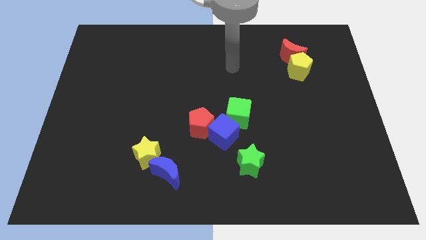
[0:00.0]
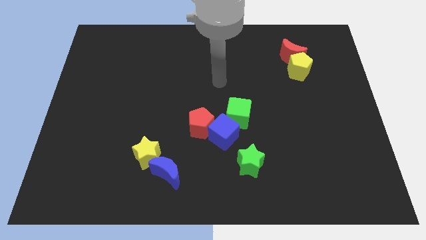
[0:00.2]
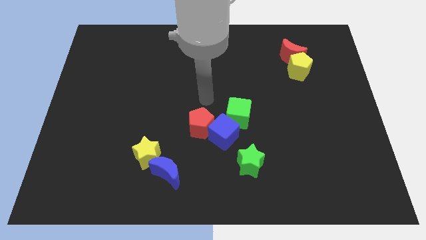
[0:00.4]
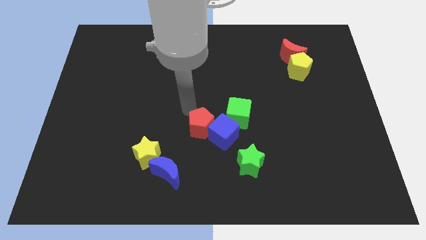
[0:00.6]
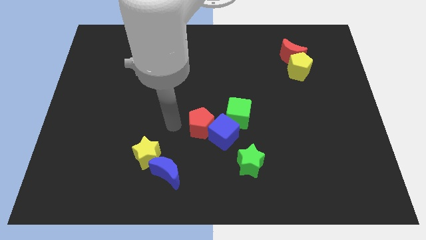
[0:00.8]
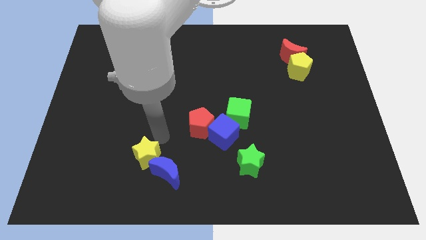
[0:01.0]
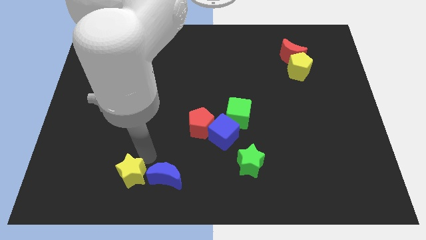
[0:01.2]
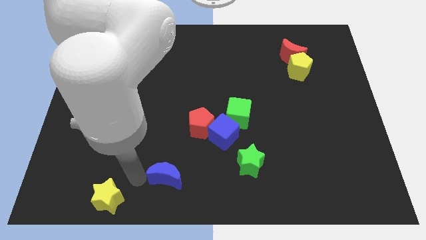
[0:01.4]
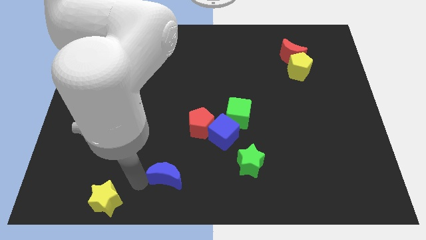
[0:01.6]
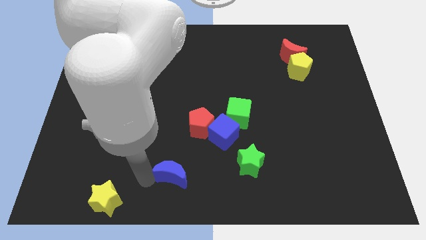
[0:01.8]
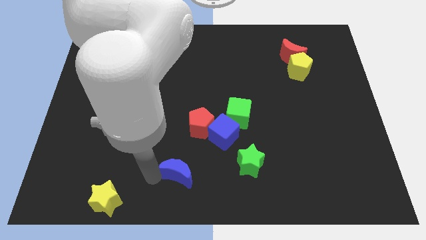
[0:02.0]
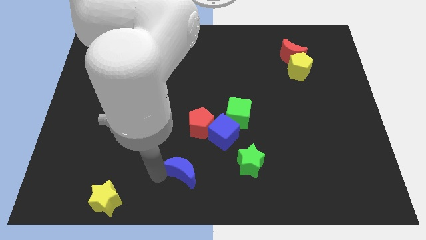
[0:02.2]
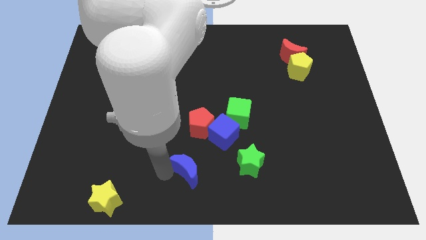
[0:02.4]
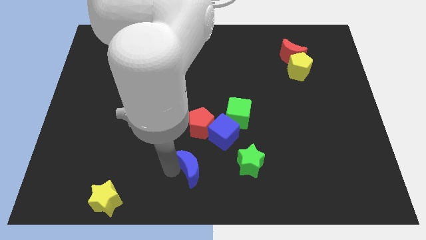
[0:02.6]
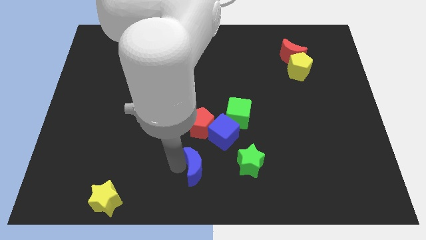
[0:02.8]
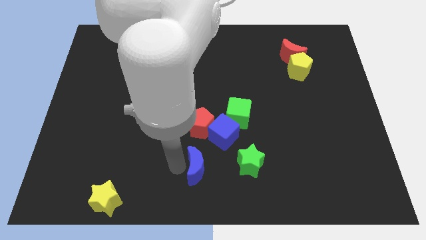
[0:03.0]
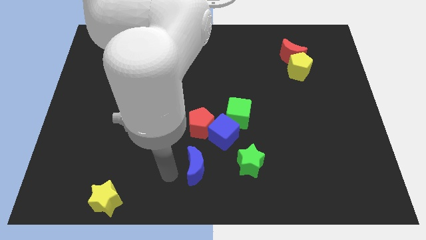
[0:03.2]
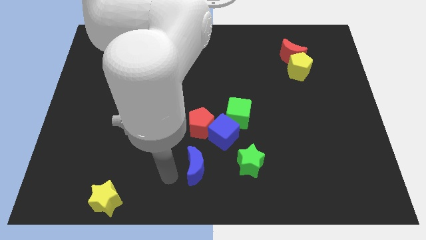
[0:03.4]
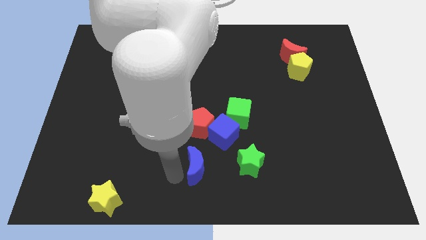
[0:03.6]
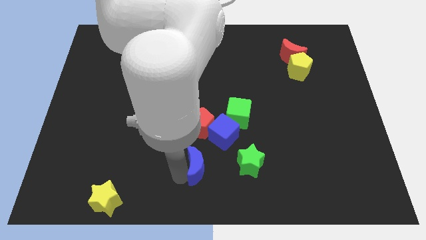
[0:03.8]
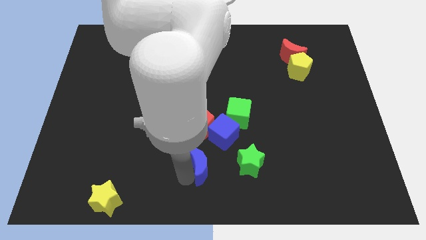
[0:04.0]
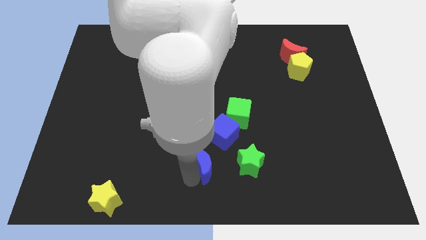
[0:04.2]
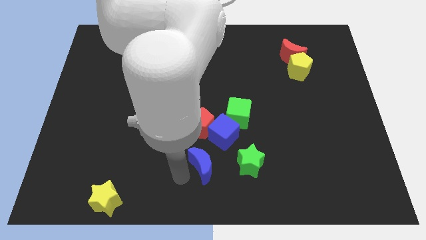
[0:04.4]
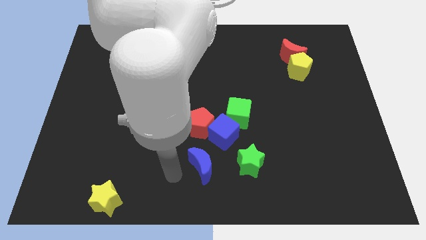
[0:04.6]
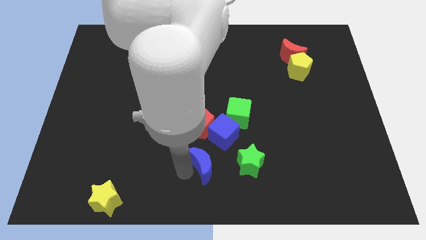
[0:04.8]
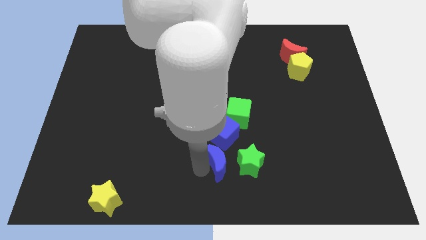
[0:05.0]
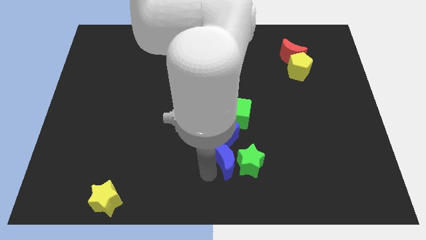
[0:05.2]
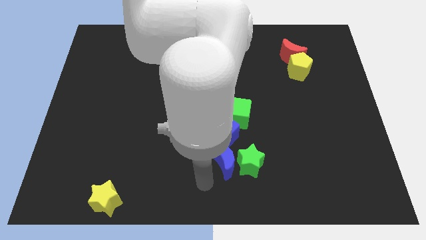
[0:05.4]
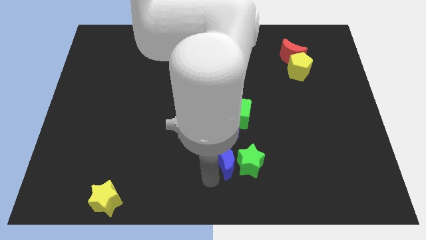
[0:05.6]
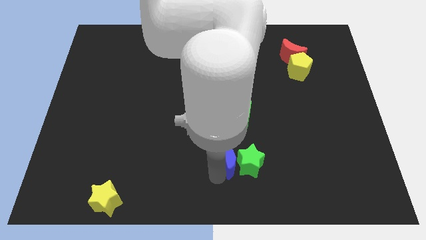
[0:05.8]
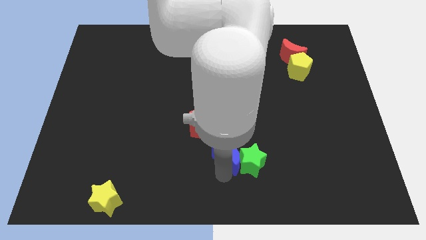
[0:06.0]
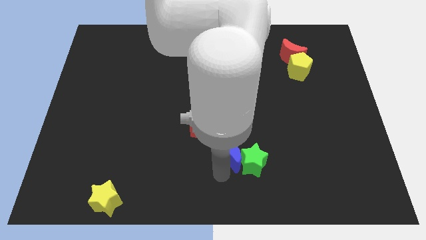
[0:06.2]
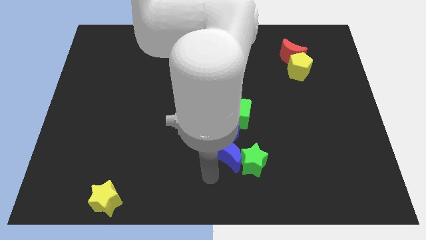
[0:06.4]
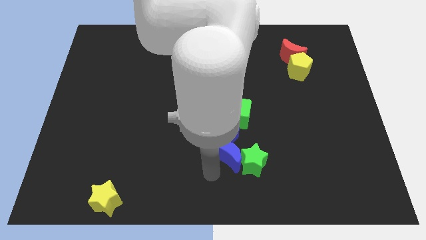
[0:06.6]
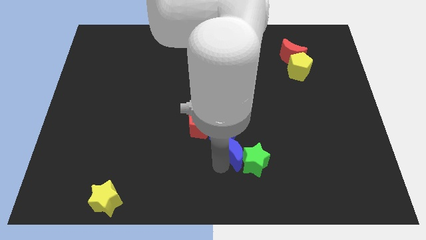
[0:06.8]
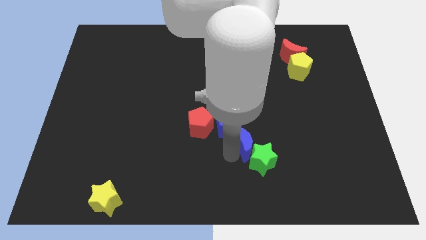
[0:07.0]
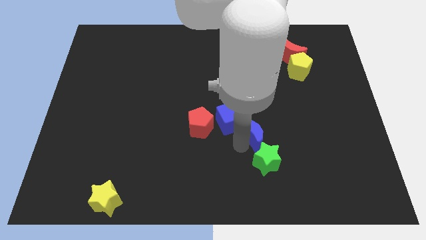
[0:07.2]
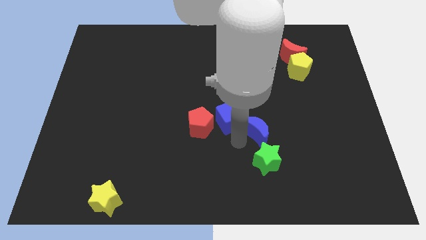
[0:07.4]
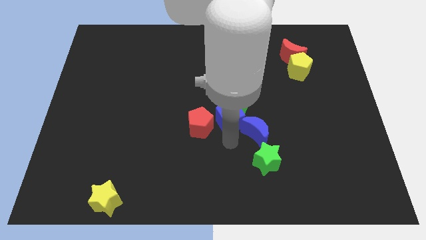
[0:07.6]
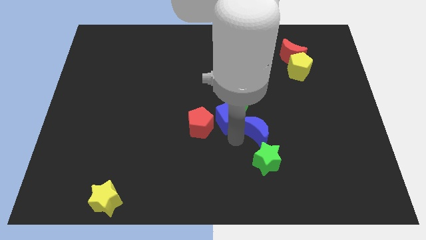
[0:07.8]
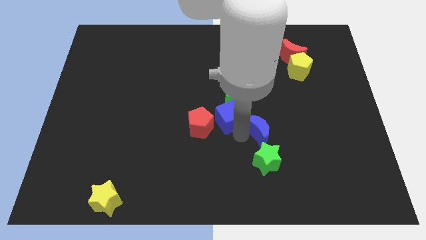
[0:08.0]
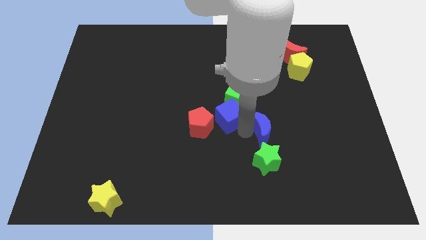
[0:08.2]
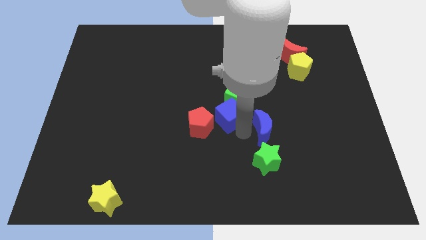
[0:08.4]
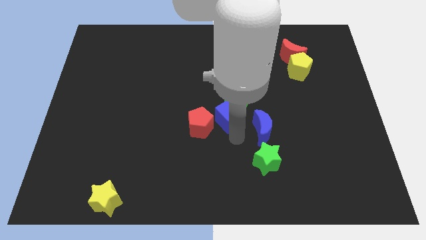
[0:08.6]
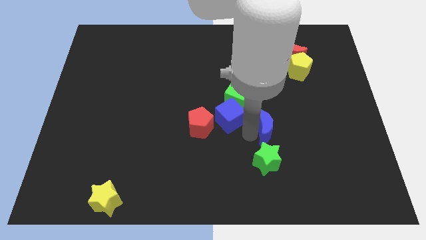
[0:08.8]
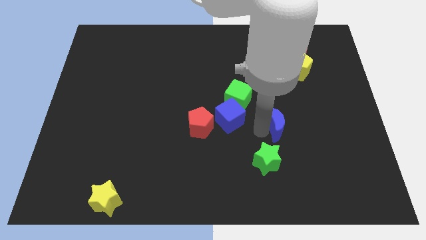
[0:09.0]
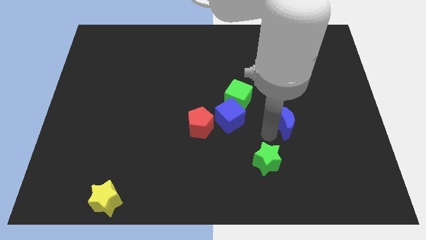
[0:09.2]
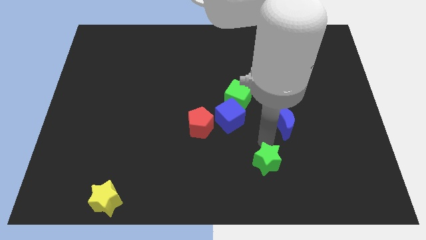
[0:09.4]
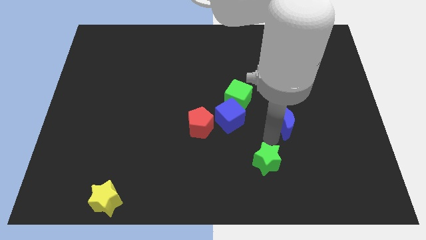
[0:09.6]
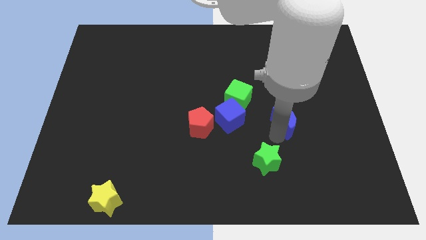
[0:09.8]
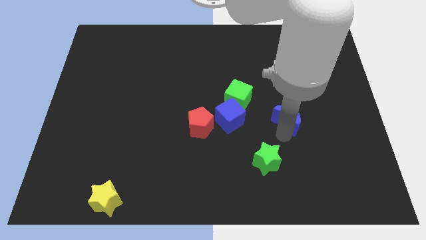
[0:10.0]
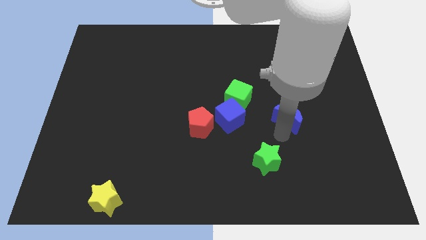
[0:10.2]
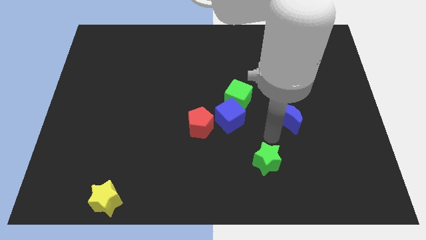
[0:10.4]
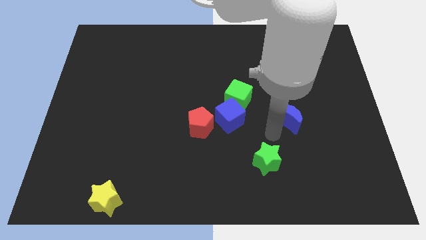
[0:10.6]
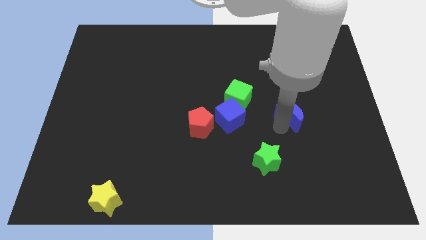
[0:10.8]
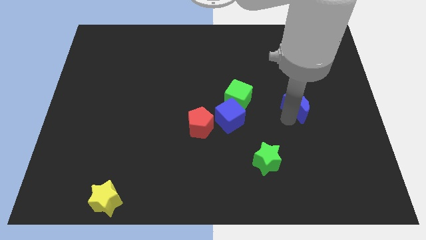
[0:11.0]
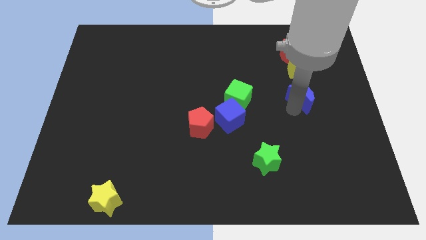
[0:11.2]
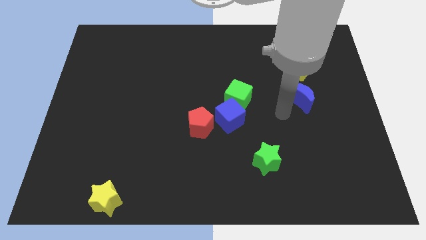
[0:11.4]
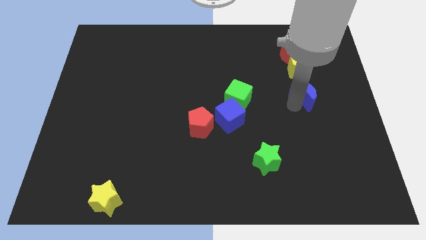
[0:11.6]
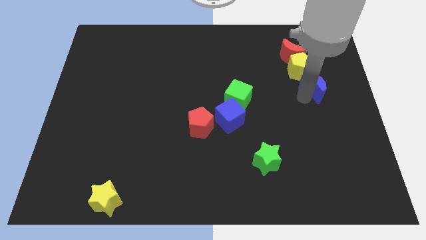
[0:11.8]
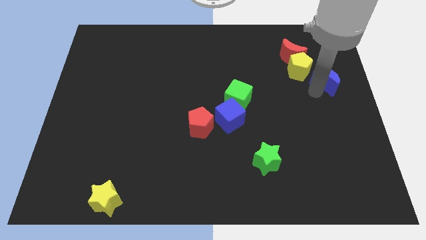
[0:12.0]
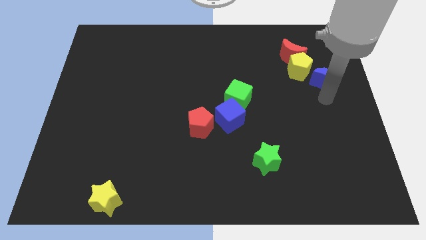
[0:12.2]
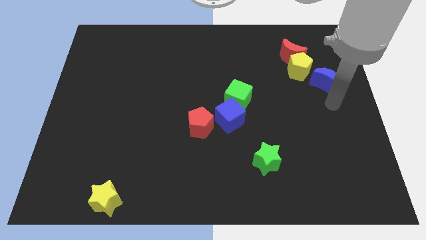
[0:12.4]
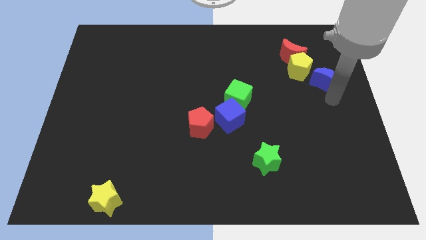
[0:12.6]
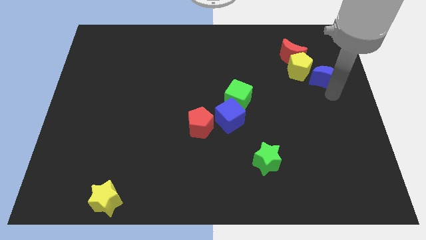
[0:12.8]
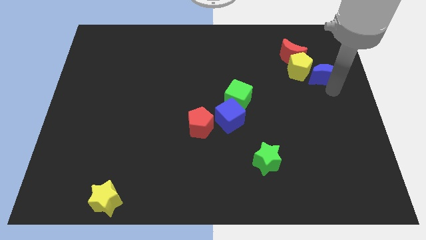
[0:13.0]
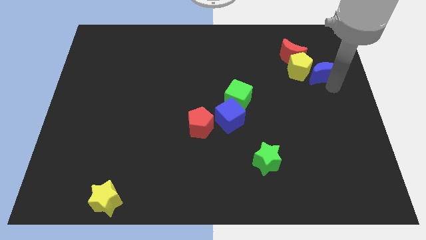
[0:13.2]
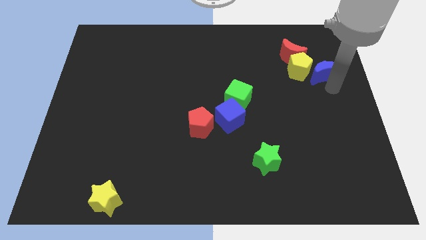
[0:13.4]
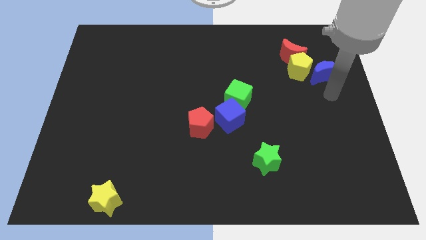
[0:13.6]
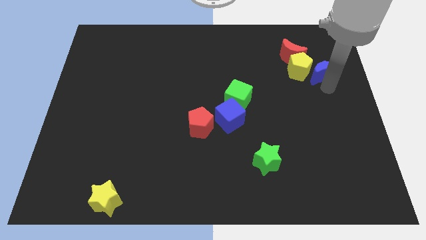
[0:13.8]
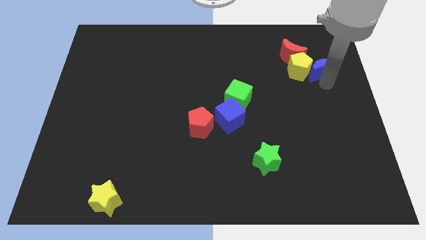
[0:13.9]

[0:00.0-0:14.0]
move the blue moon to the top right of the yellow pentagon
